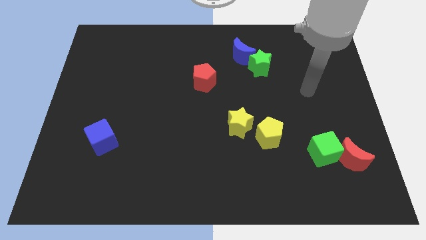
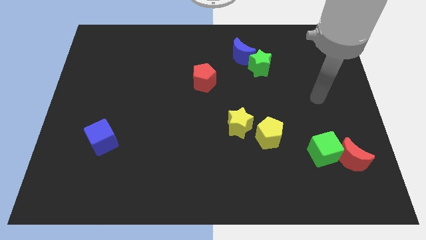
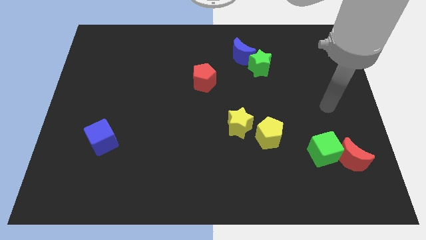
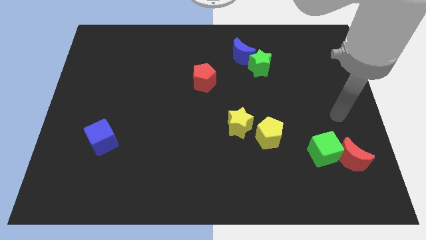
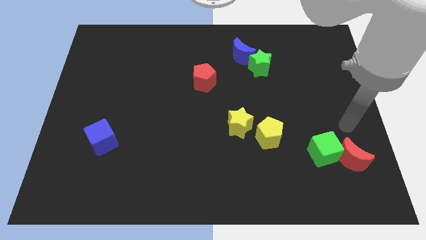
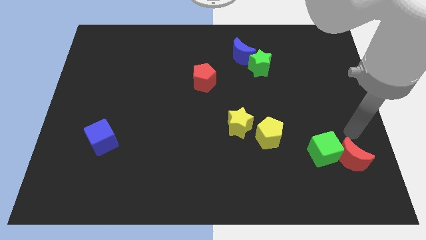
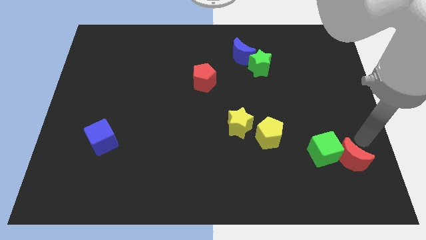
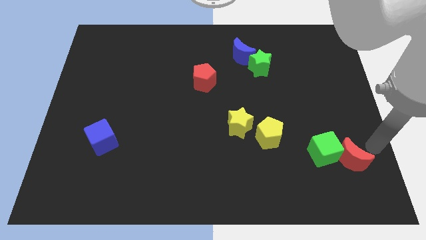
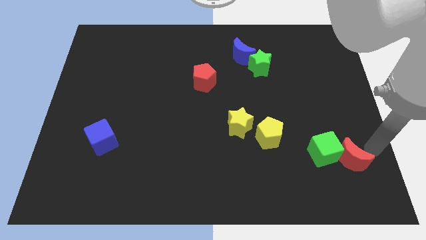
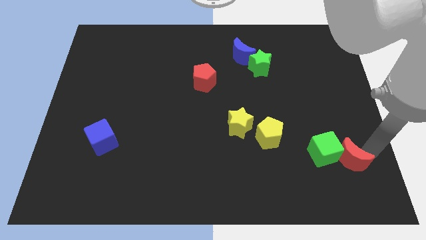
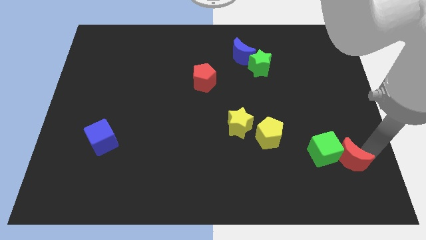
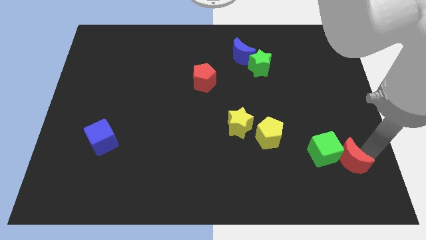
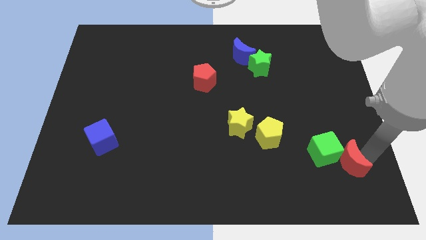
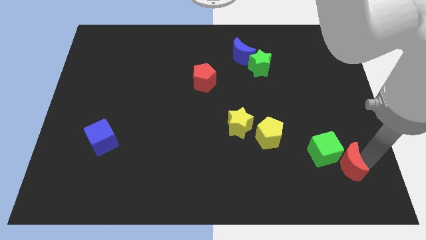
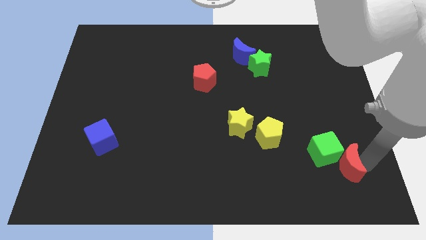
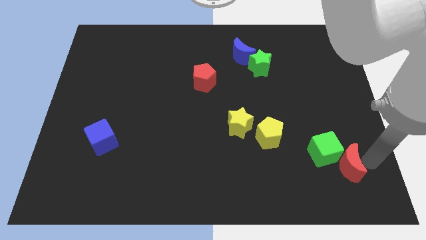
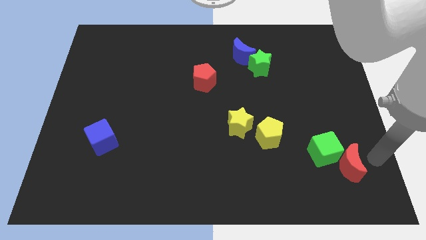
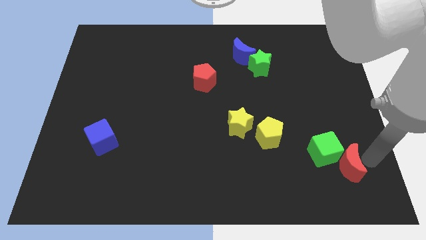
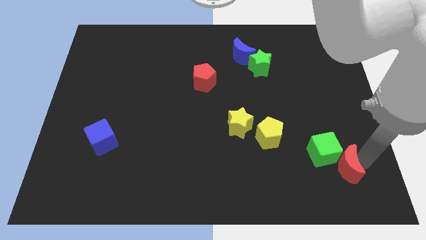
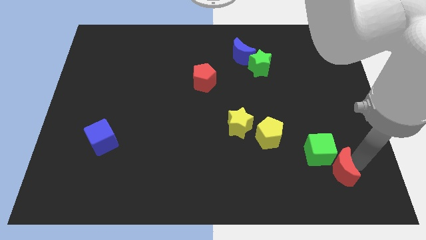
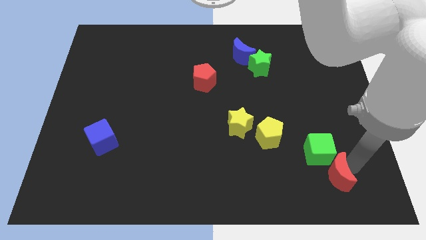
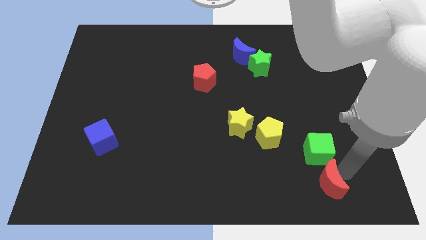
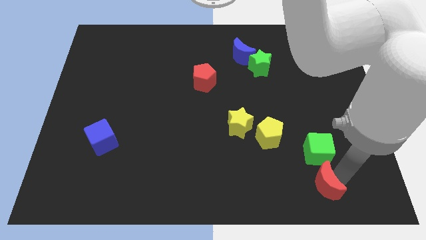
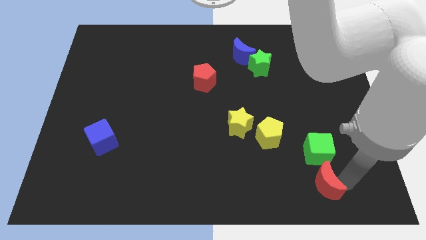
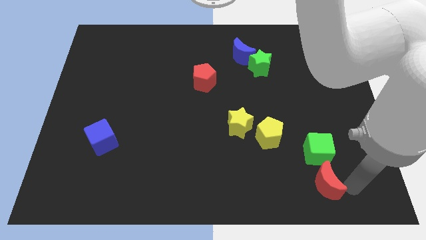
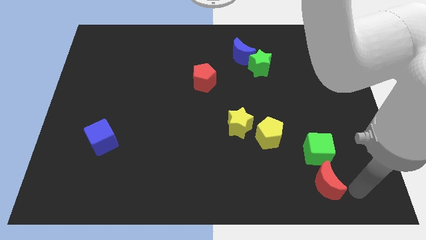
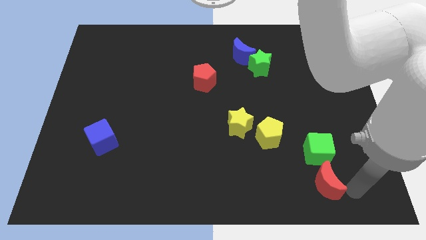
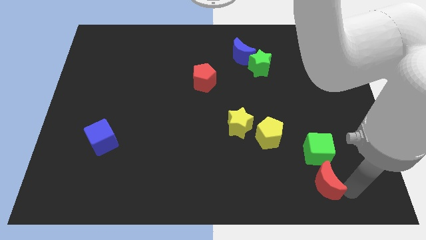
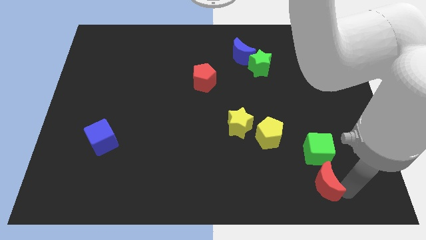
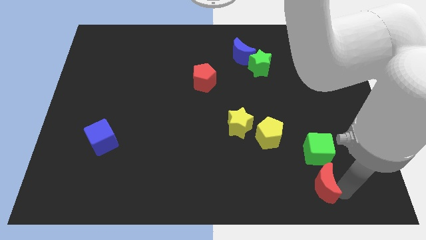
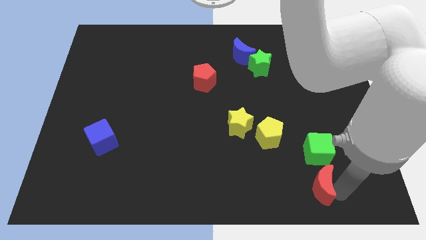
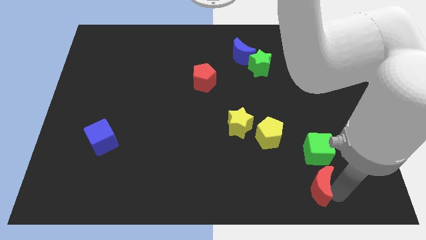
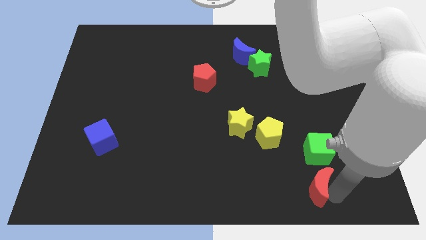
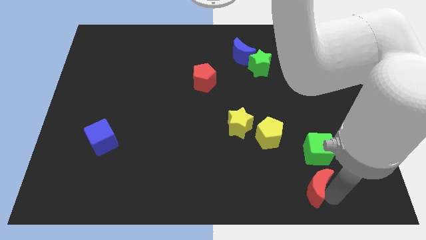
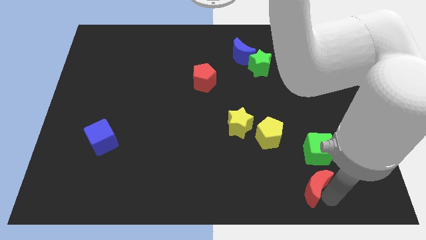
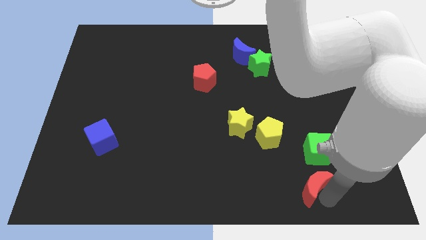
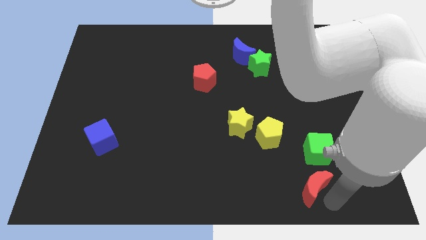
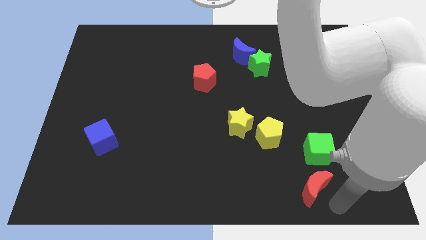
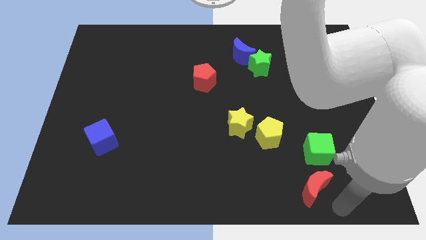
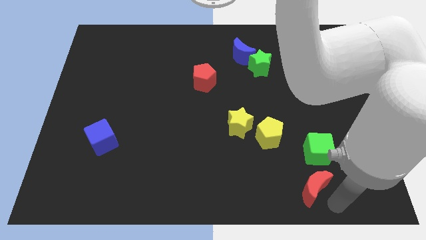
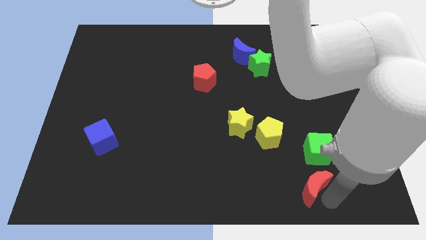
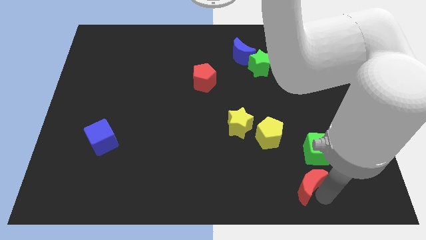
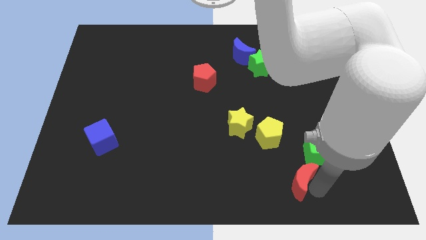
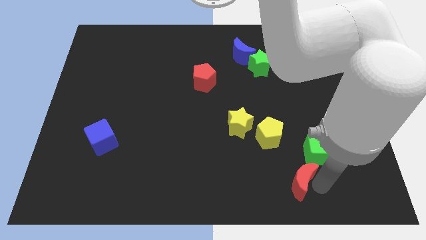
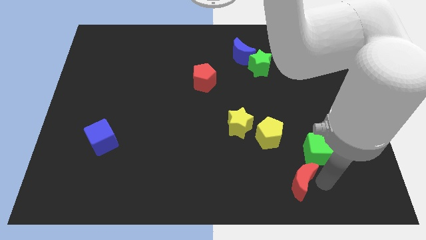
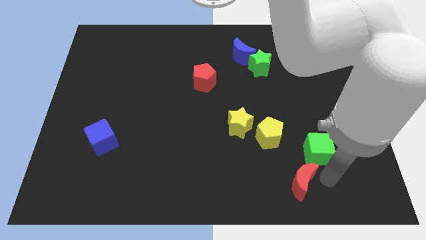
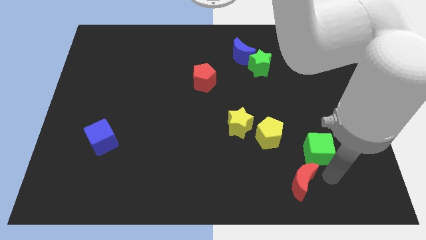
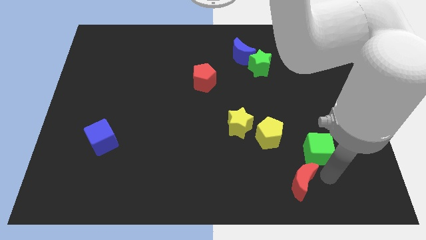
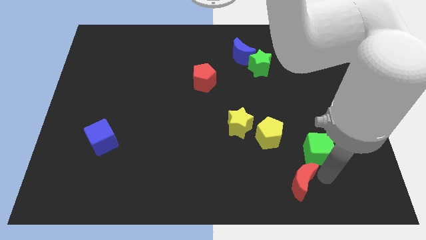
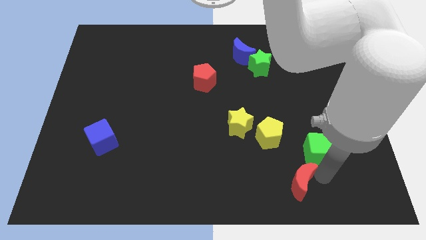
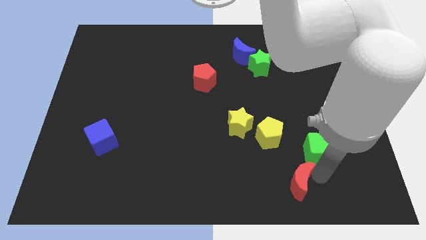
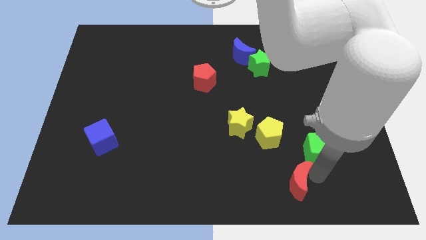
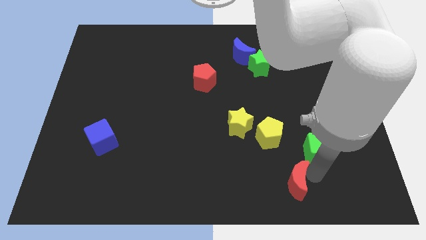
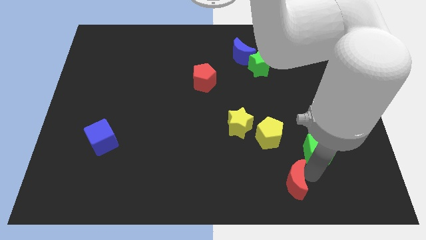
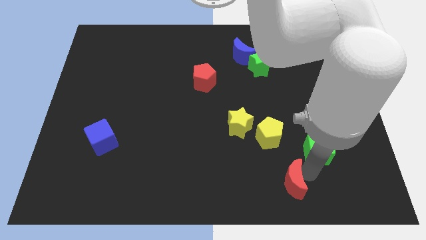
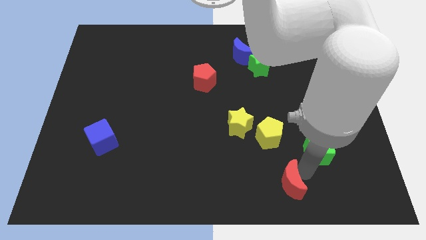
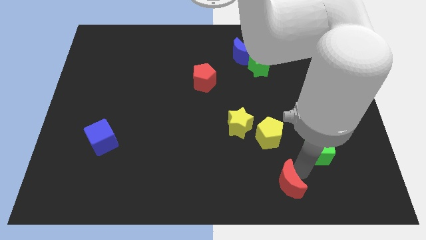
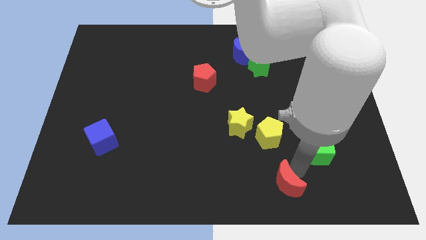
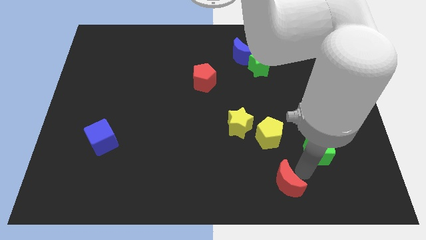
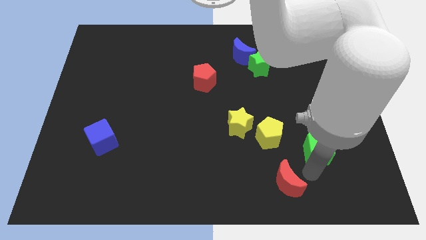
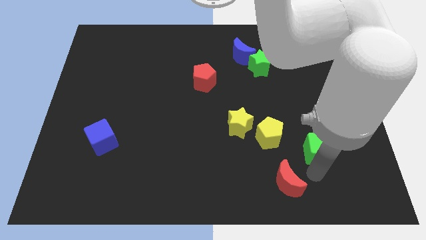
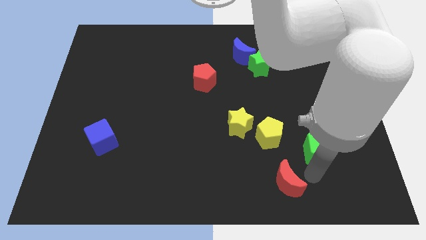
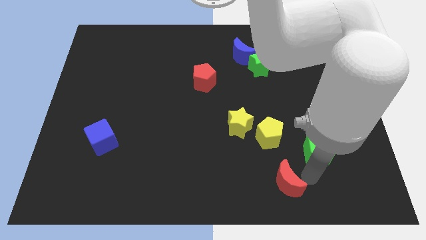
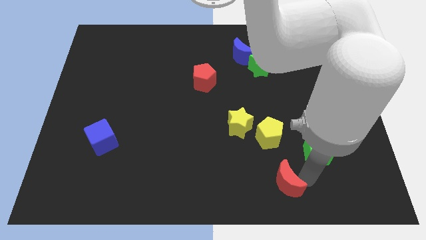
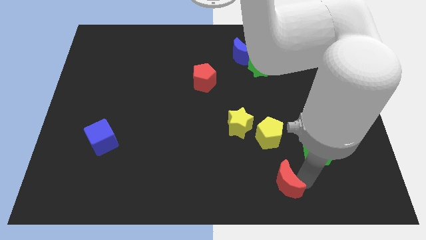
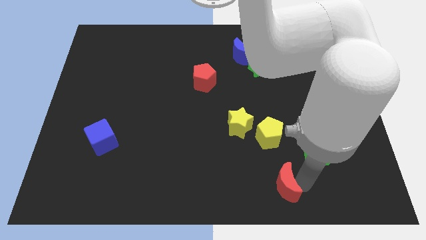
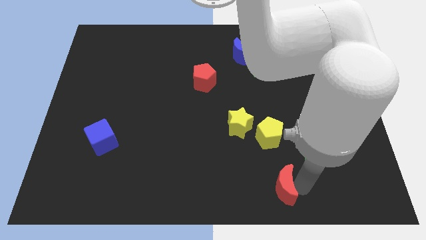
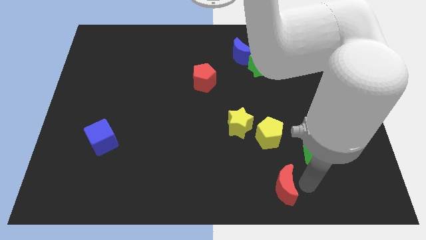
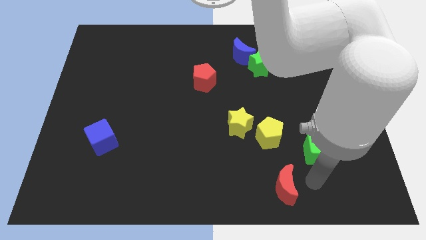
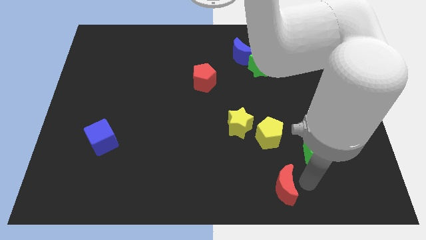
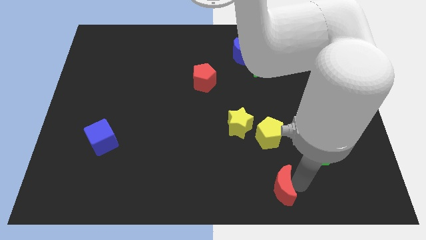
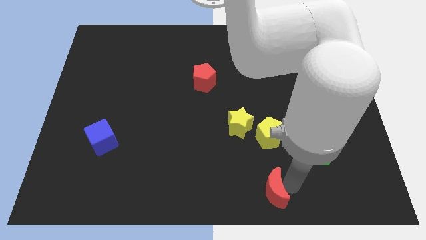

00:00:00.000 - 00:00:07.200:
slide the red moon to the bottom
